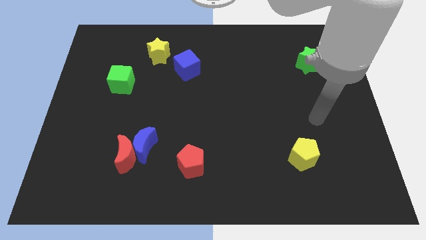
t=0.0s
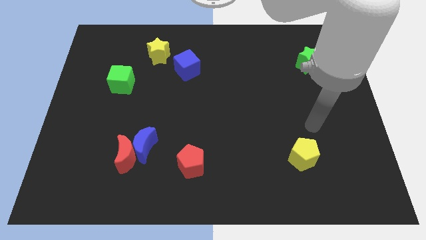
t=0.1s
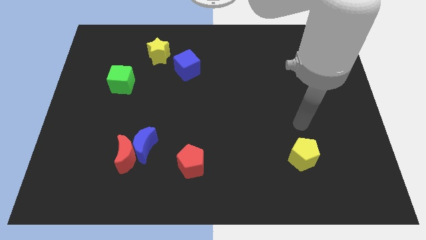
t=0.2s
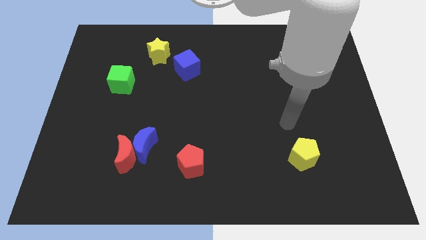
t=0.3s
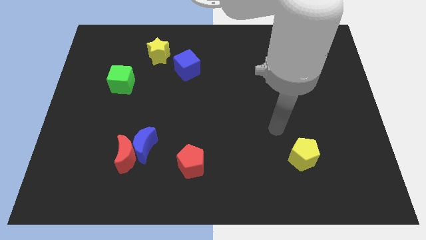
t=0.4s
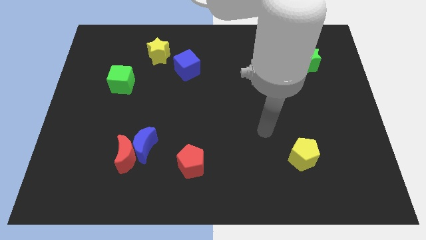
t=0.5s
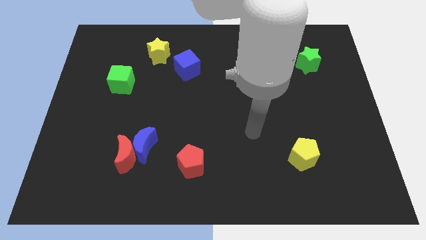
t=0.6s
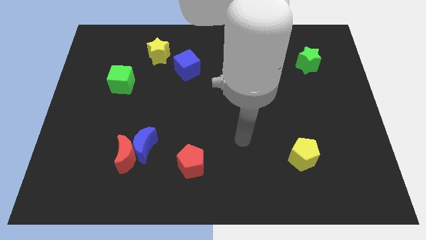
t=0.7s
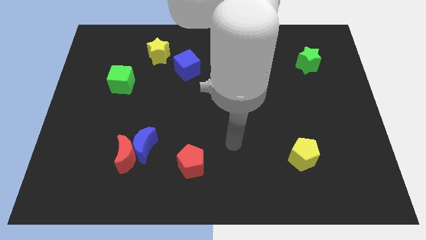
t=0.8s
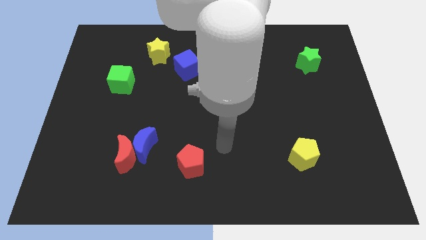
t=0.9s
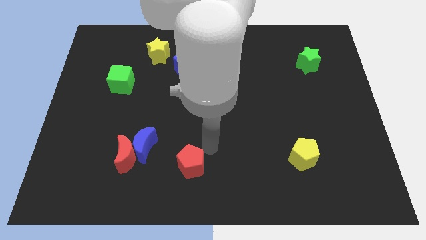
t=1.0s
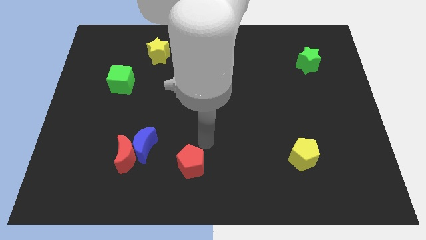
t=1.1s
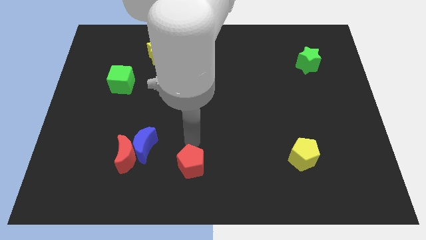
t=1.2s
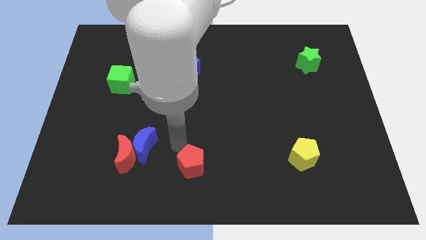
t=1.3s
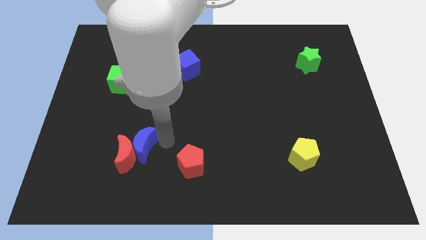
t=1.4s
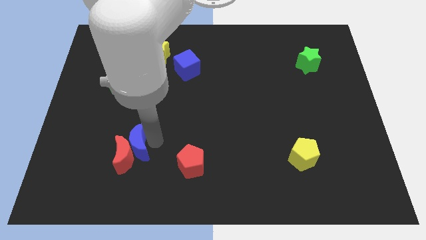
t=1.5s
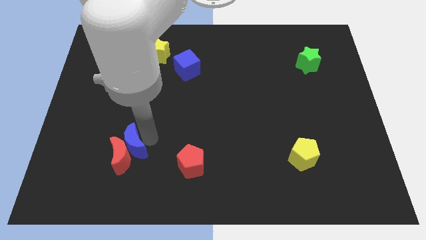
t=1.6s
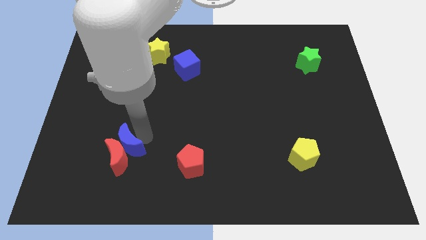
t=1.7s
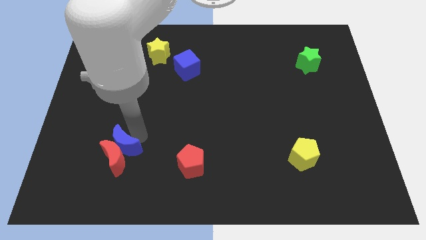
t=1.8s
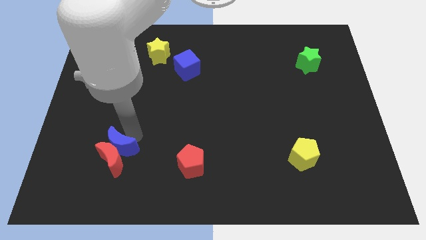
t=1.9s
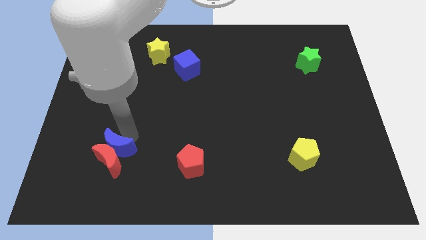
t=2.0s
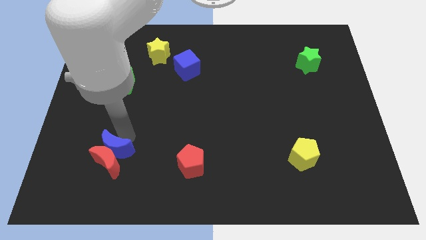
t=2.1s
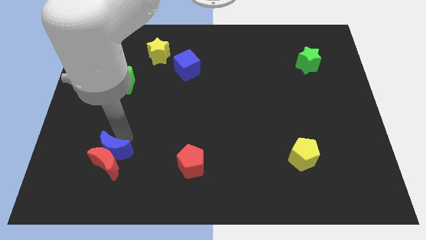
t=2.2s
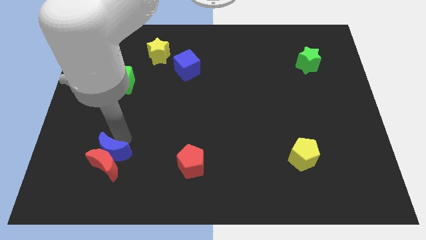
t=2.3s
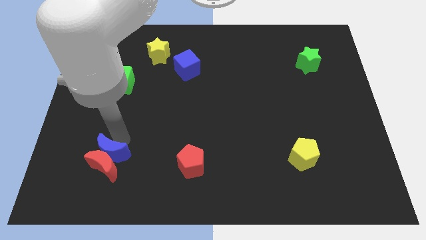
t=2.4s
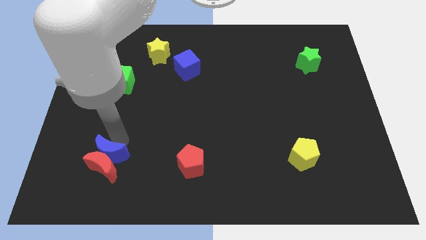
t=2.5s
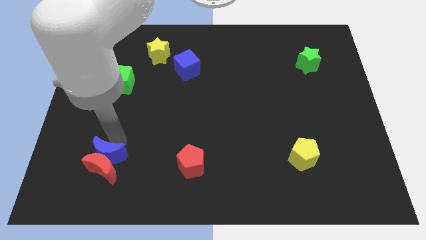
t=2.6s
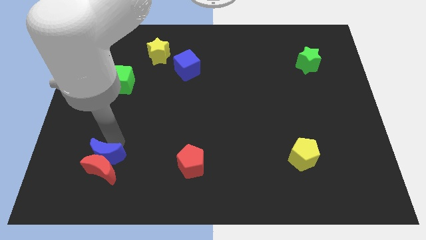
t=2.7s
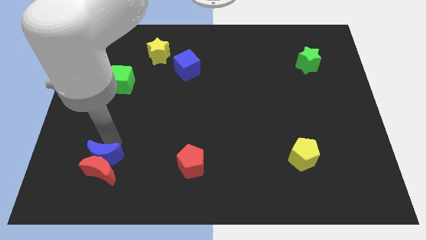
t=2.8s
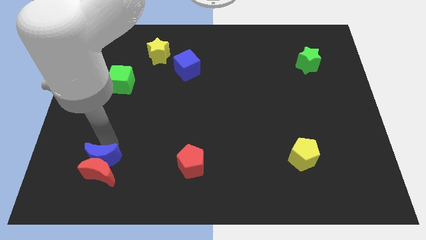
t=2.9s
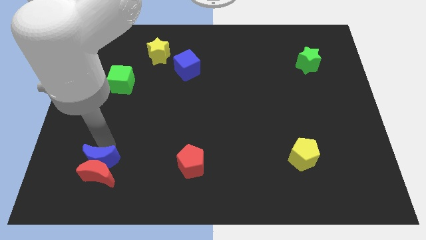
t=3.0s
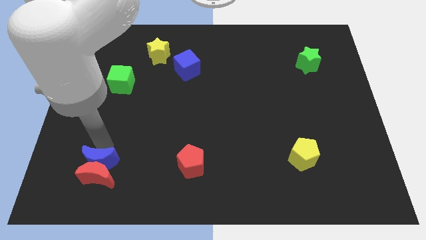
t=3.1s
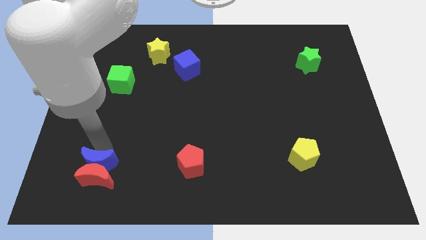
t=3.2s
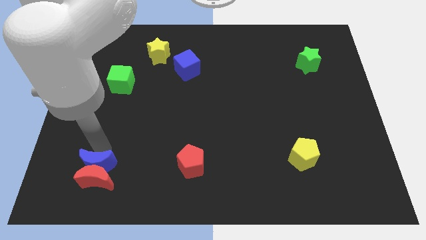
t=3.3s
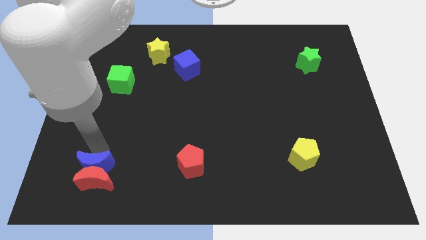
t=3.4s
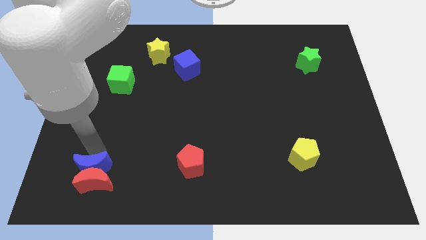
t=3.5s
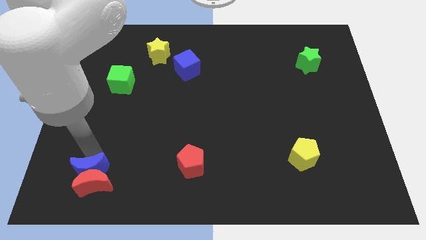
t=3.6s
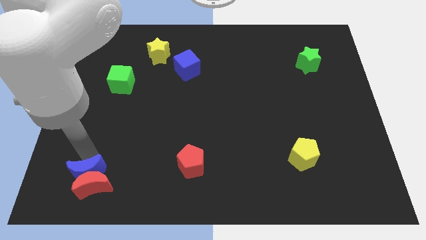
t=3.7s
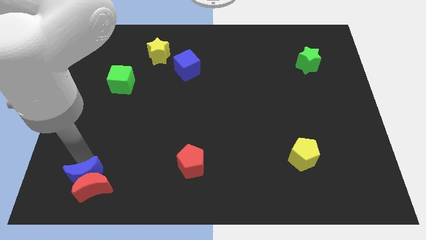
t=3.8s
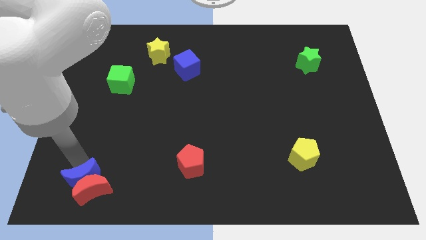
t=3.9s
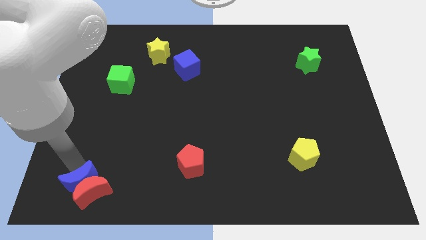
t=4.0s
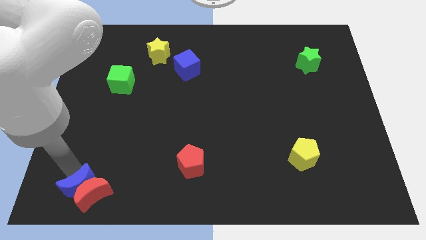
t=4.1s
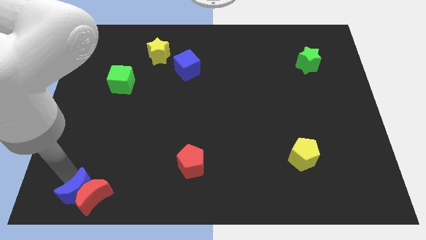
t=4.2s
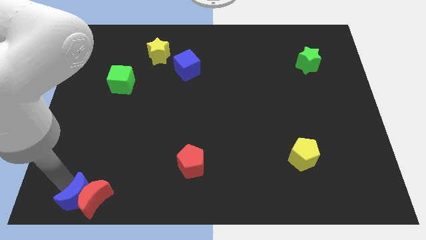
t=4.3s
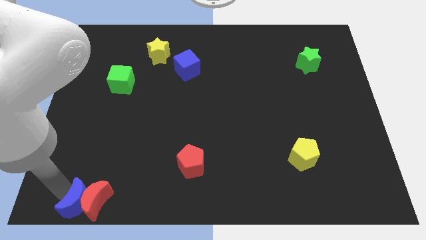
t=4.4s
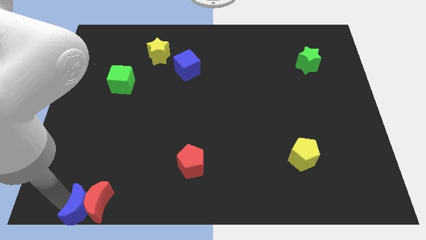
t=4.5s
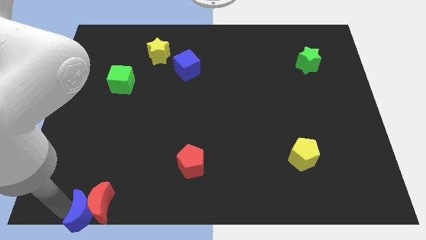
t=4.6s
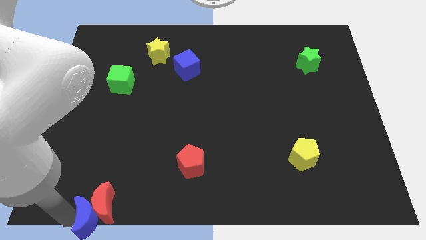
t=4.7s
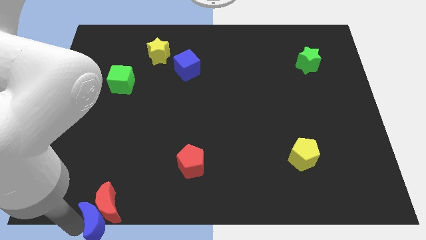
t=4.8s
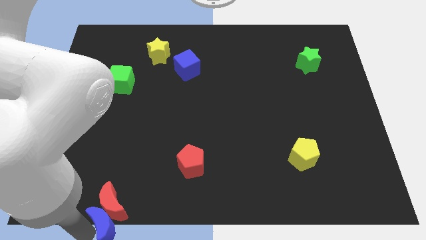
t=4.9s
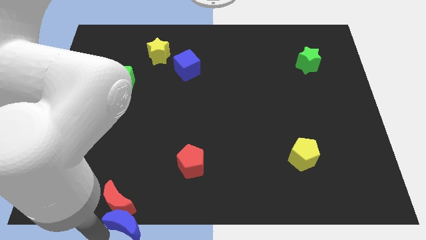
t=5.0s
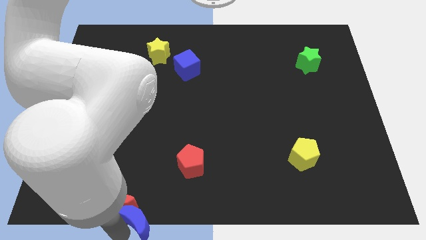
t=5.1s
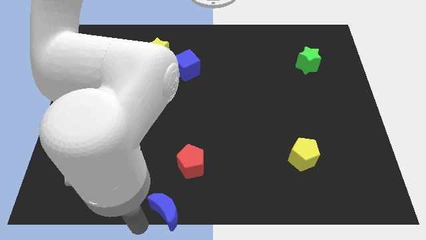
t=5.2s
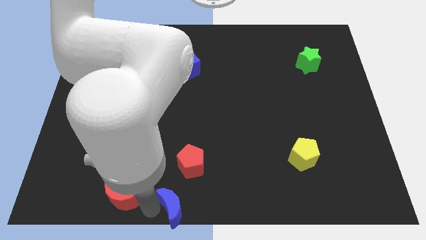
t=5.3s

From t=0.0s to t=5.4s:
move the red moon away from the blue moon

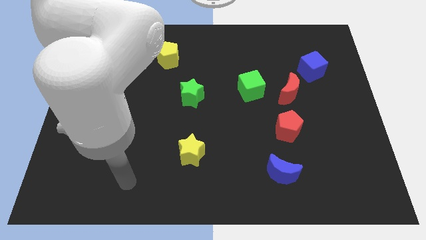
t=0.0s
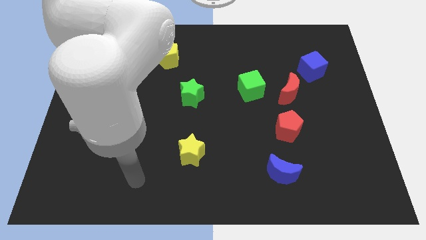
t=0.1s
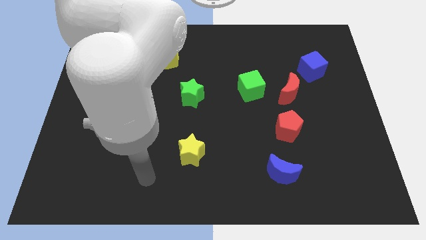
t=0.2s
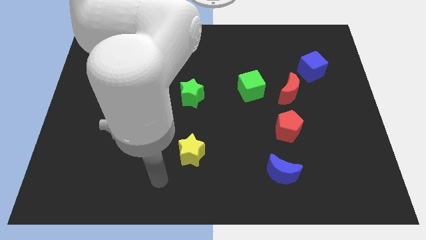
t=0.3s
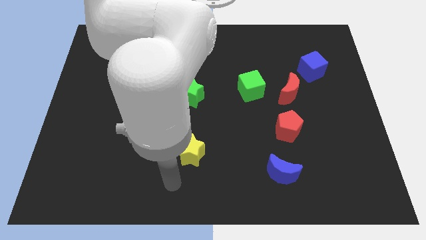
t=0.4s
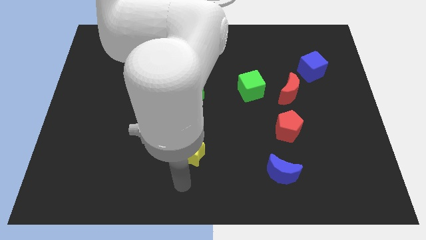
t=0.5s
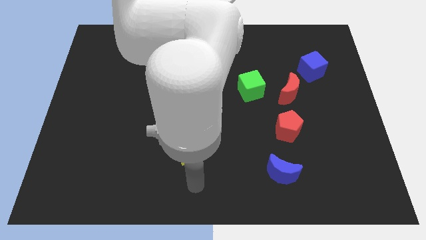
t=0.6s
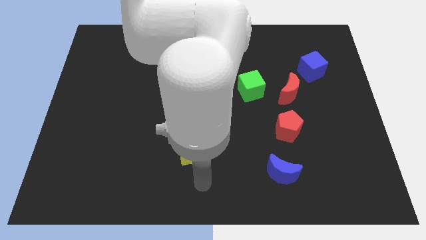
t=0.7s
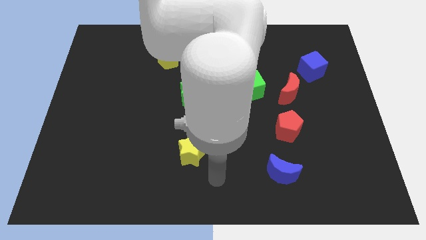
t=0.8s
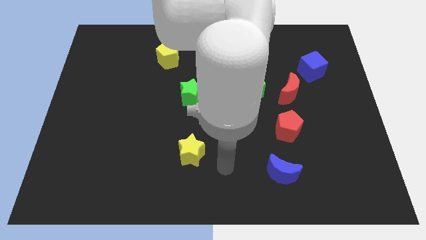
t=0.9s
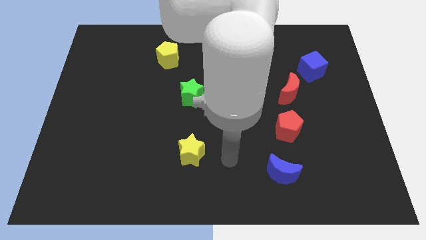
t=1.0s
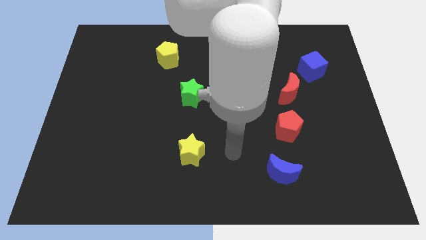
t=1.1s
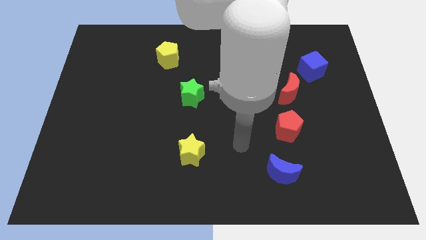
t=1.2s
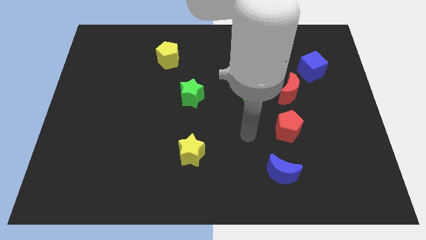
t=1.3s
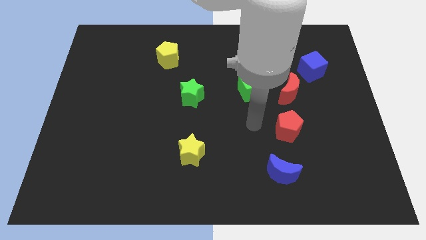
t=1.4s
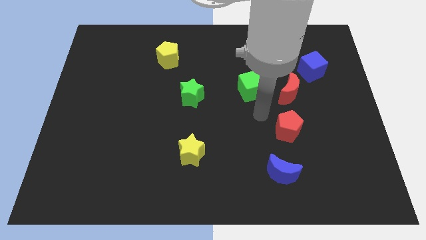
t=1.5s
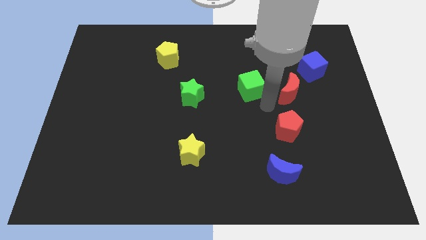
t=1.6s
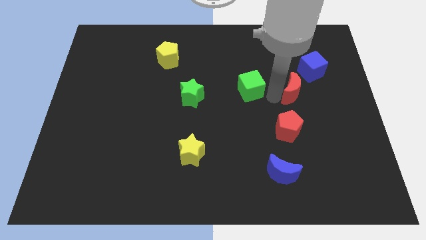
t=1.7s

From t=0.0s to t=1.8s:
pull the green cube apart from the red moon

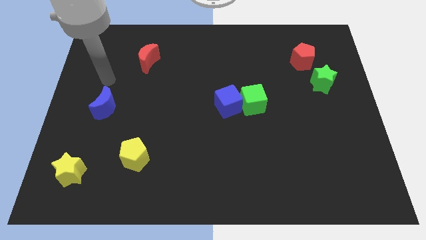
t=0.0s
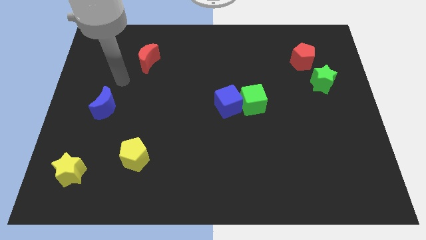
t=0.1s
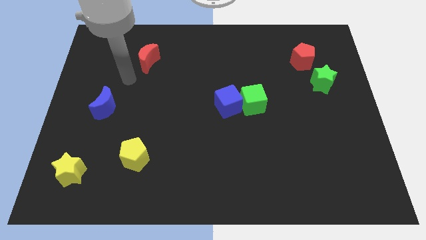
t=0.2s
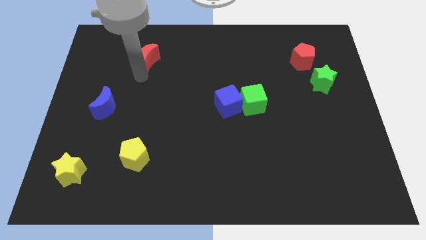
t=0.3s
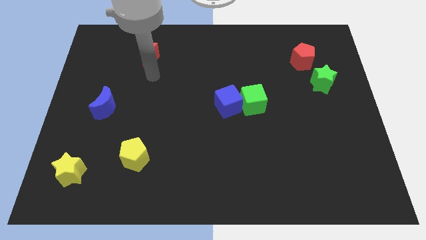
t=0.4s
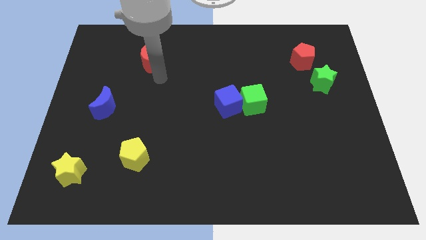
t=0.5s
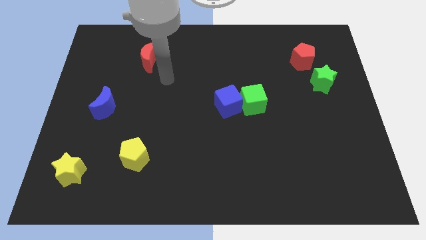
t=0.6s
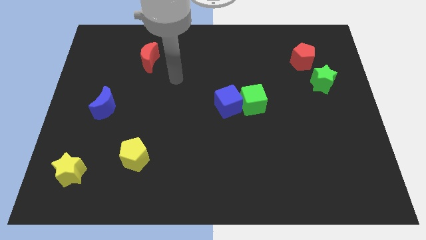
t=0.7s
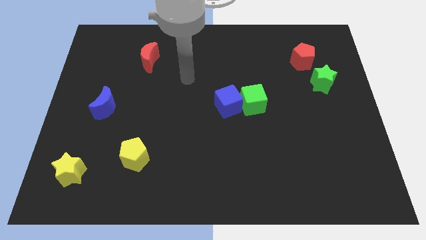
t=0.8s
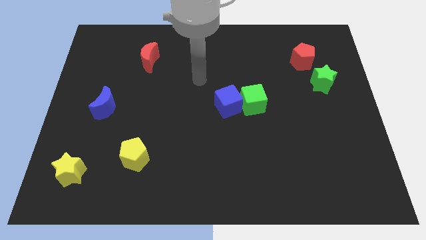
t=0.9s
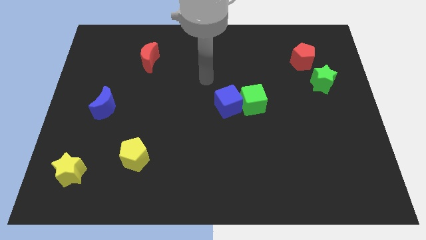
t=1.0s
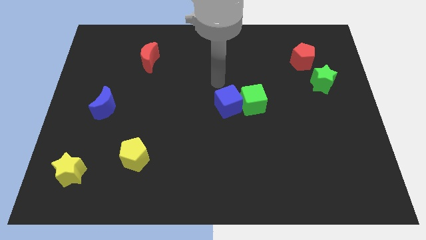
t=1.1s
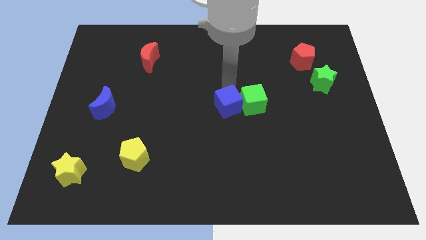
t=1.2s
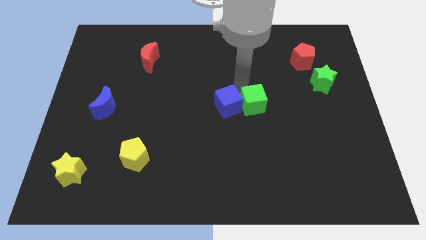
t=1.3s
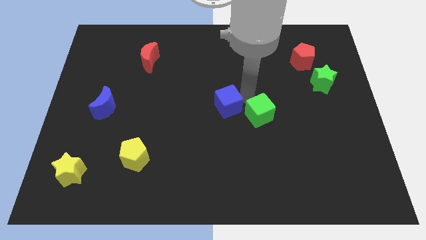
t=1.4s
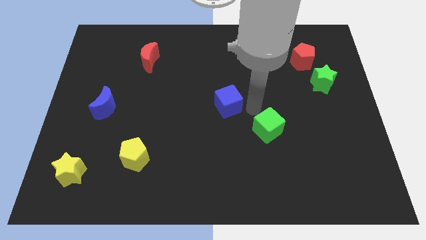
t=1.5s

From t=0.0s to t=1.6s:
separate the blue cube from the green cube

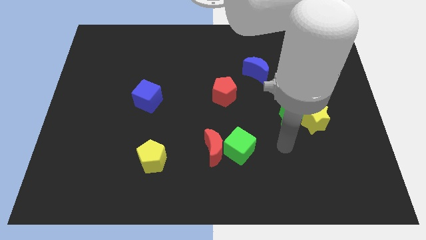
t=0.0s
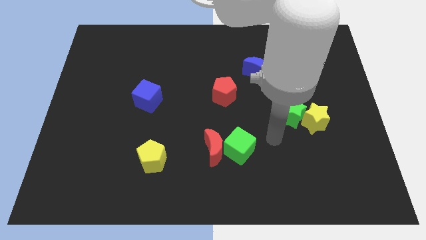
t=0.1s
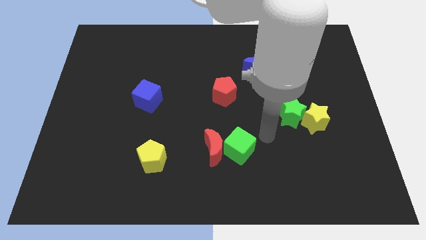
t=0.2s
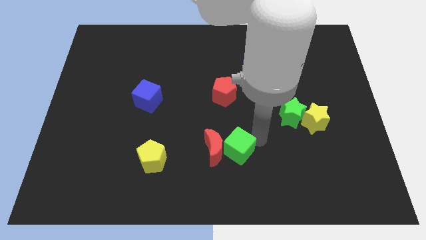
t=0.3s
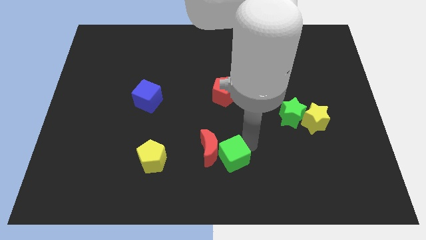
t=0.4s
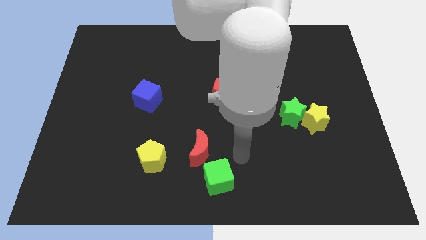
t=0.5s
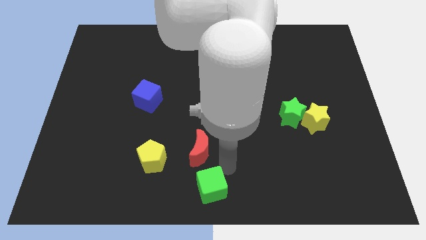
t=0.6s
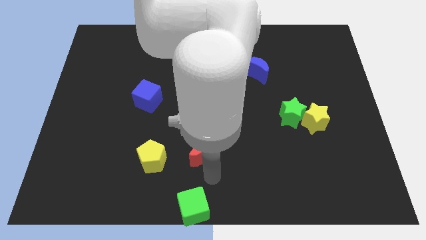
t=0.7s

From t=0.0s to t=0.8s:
pull the red moon apart from the green cube
